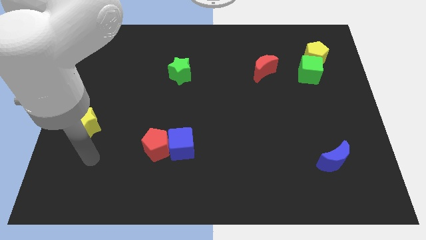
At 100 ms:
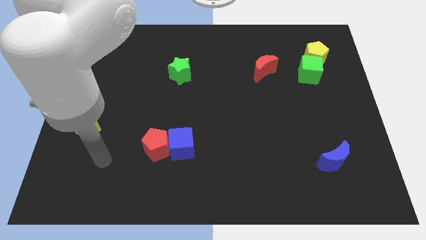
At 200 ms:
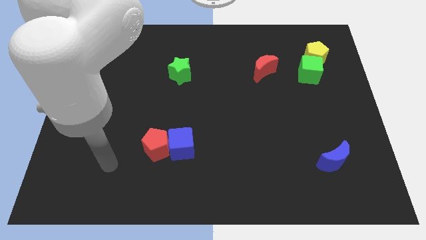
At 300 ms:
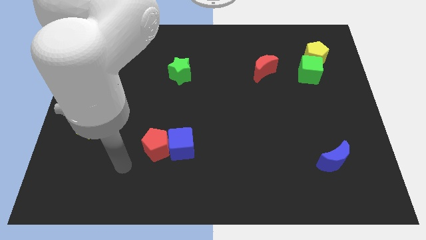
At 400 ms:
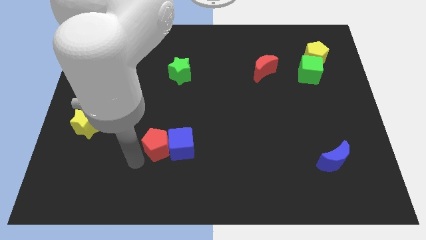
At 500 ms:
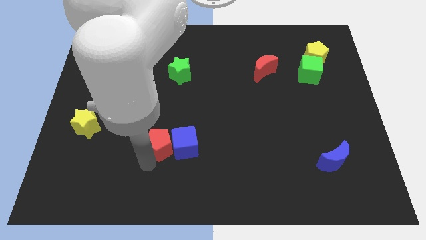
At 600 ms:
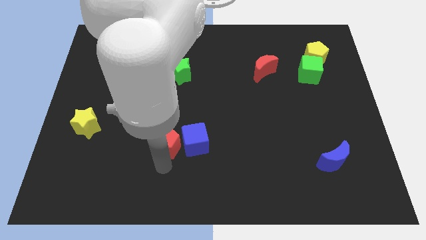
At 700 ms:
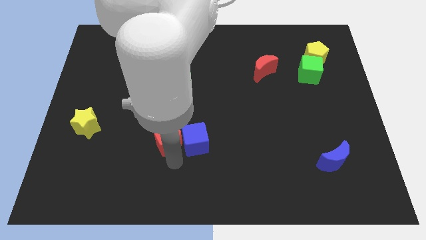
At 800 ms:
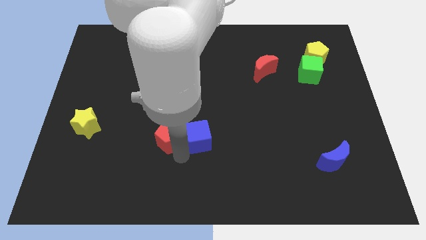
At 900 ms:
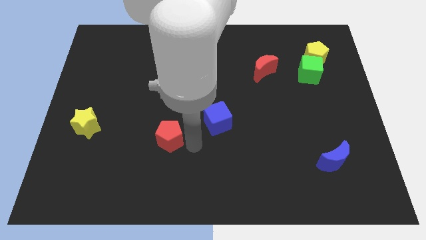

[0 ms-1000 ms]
move the red pentagon away from the blue cube

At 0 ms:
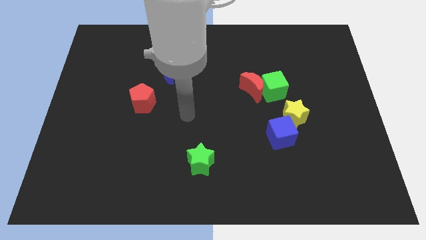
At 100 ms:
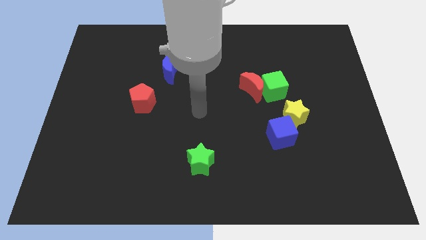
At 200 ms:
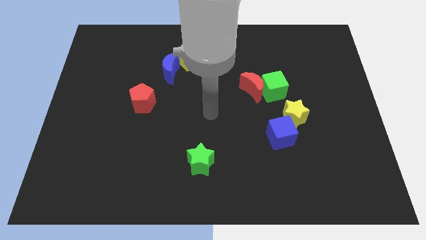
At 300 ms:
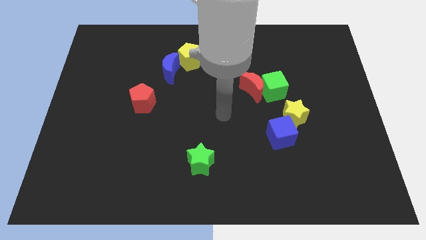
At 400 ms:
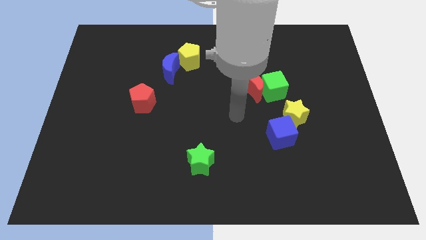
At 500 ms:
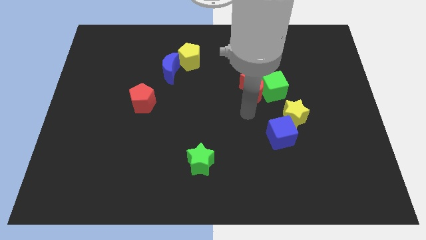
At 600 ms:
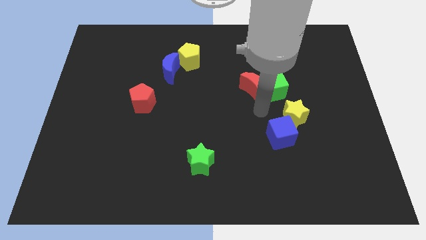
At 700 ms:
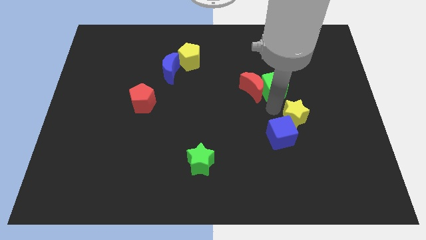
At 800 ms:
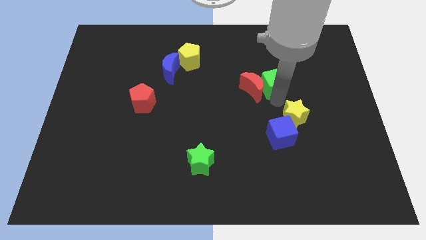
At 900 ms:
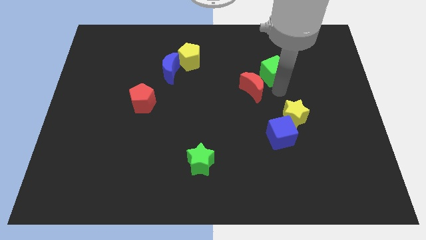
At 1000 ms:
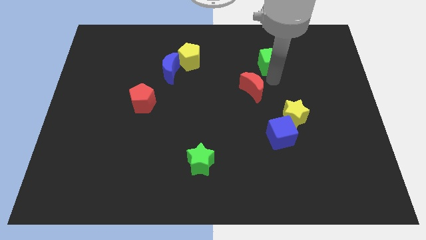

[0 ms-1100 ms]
move the red moon away from the green cube

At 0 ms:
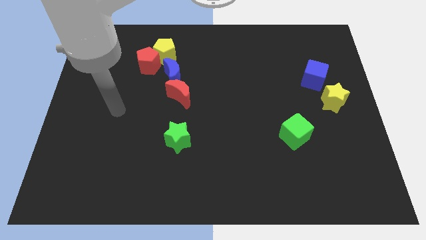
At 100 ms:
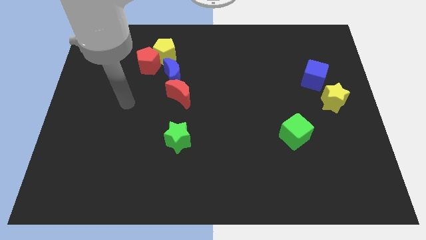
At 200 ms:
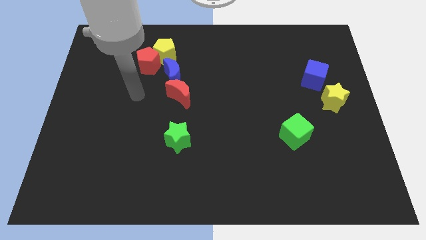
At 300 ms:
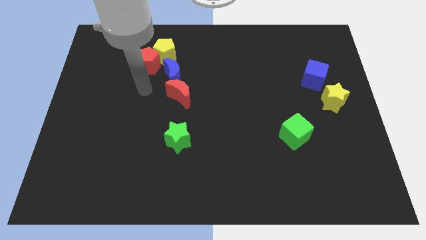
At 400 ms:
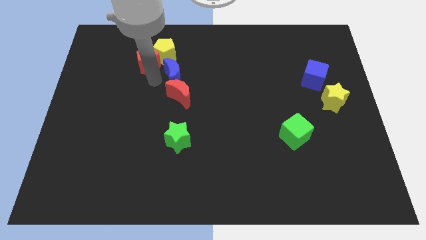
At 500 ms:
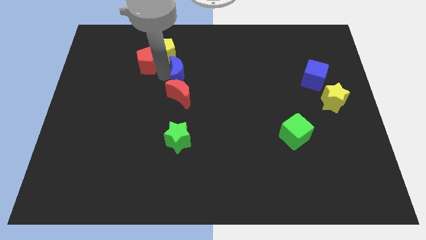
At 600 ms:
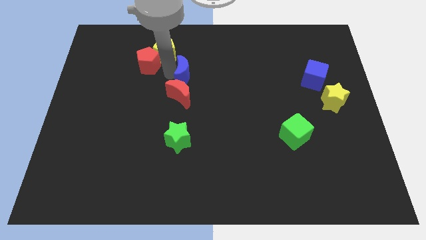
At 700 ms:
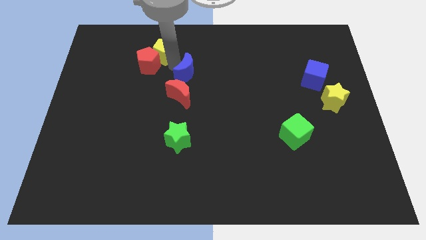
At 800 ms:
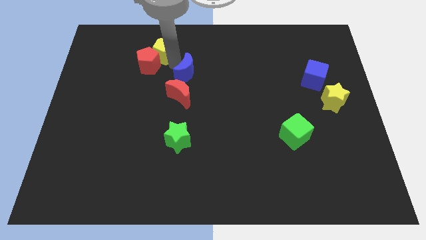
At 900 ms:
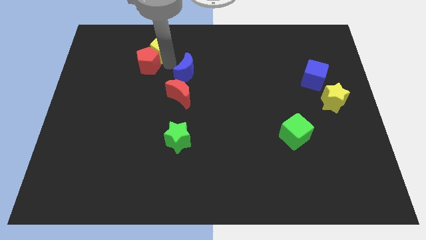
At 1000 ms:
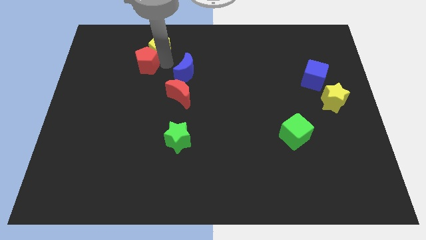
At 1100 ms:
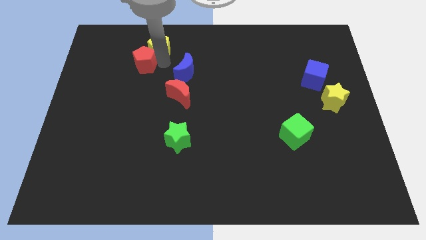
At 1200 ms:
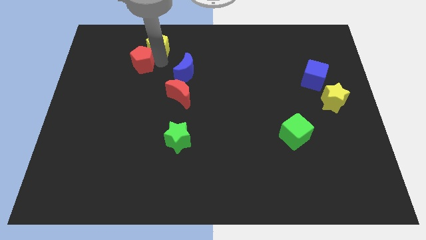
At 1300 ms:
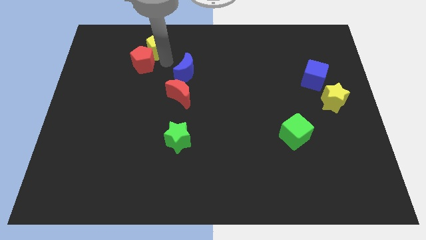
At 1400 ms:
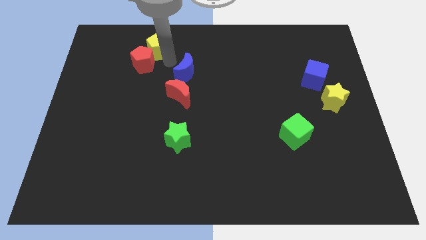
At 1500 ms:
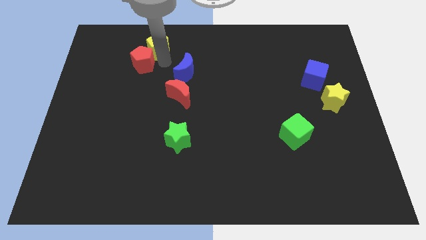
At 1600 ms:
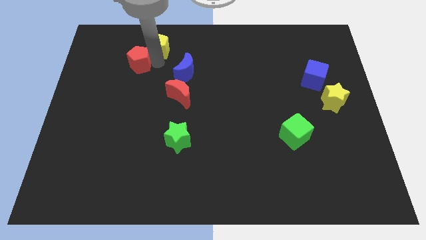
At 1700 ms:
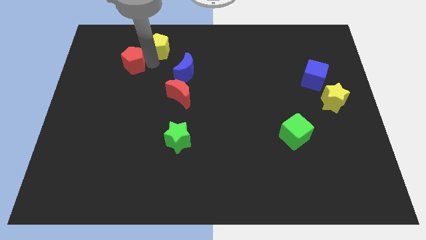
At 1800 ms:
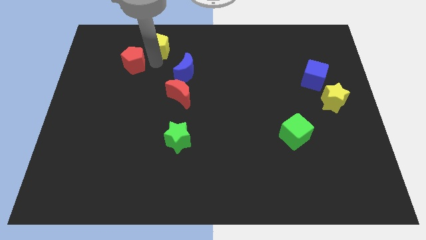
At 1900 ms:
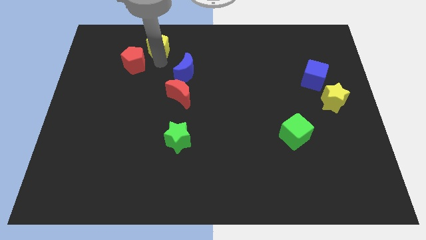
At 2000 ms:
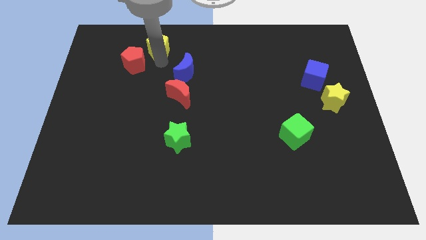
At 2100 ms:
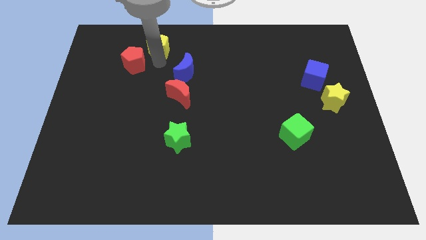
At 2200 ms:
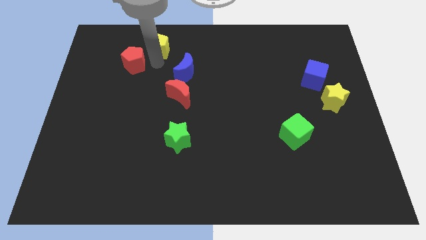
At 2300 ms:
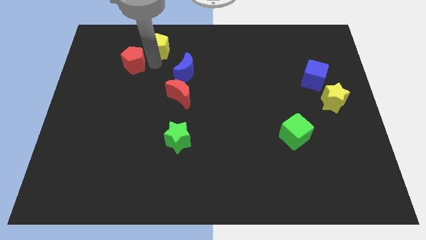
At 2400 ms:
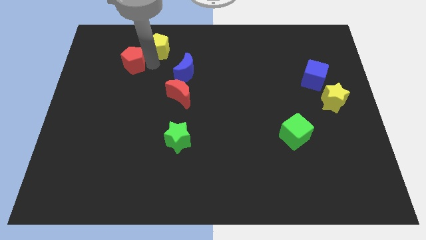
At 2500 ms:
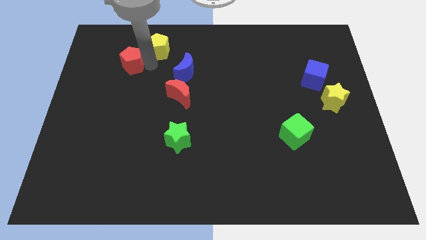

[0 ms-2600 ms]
pull the red pentagon apart from the yellow pentagon and blue moon

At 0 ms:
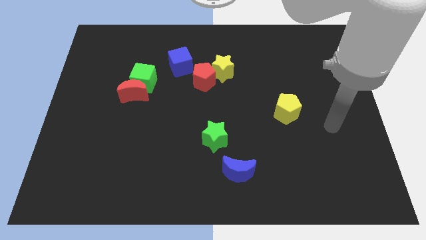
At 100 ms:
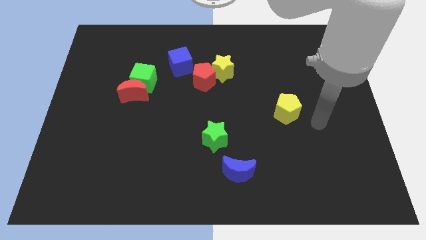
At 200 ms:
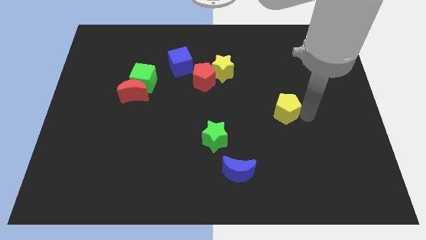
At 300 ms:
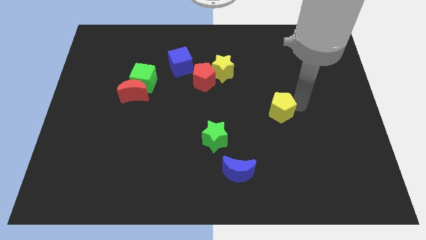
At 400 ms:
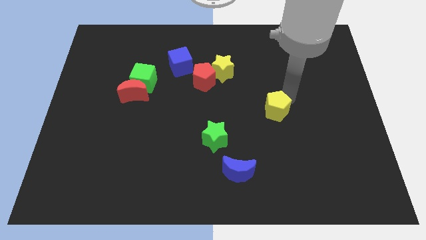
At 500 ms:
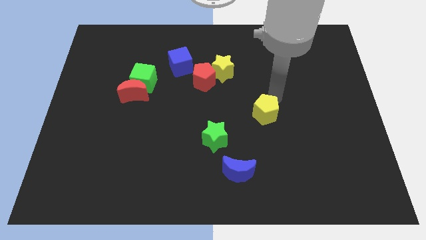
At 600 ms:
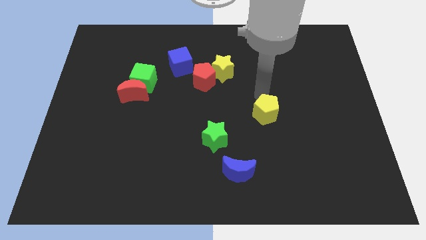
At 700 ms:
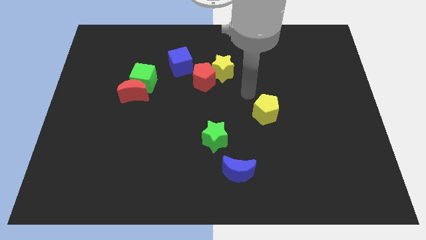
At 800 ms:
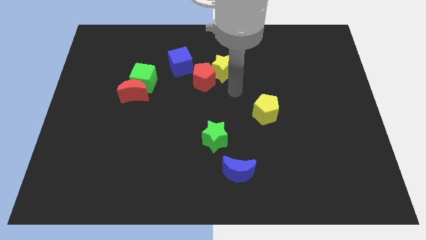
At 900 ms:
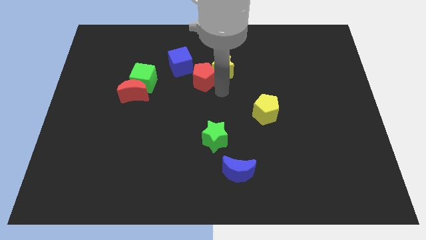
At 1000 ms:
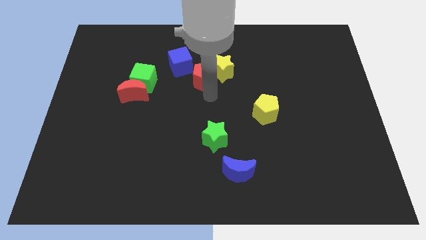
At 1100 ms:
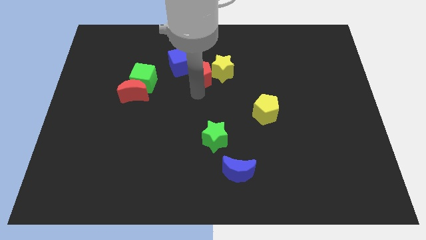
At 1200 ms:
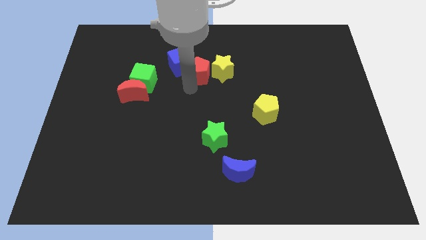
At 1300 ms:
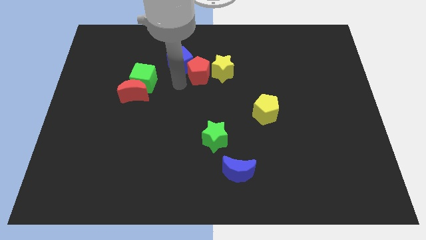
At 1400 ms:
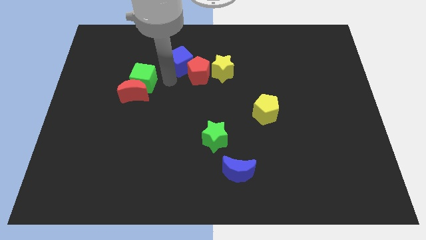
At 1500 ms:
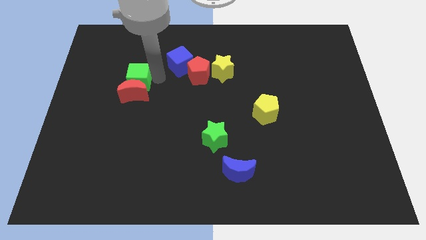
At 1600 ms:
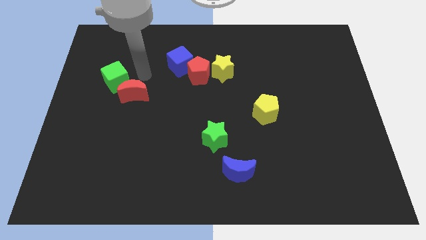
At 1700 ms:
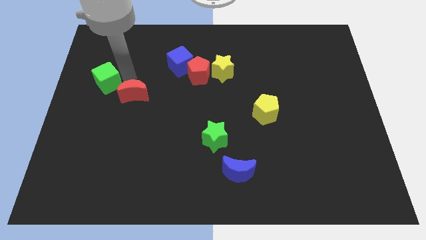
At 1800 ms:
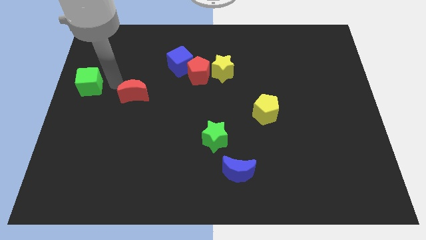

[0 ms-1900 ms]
separate the red moon from the green cube

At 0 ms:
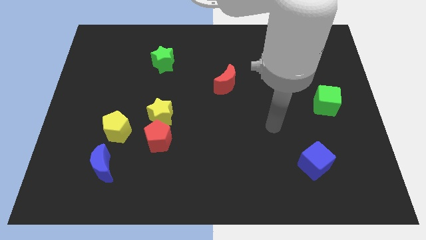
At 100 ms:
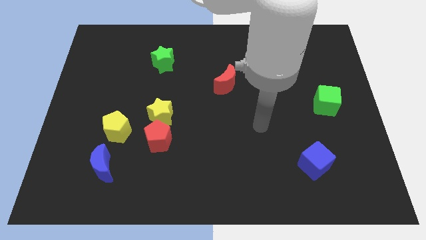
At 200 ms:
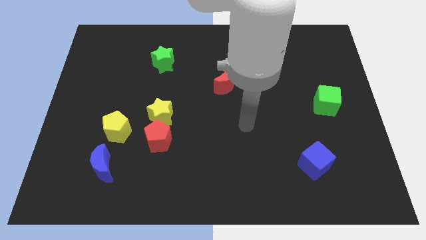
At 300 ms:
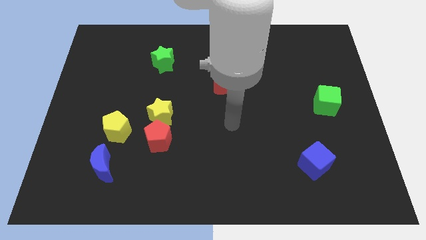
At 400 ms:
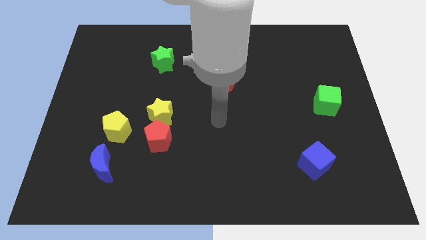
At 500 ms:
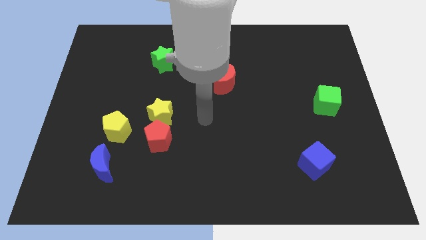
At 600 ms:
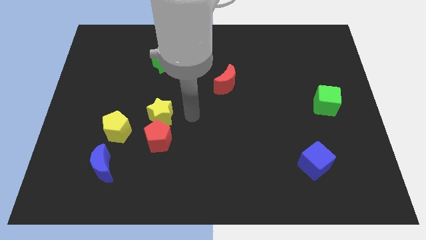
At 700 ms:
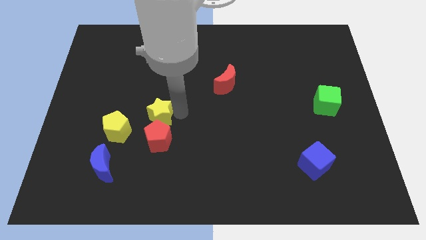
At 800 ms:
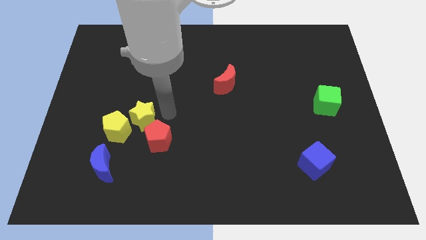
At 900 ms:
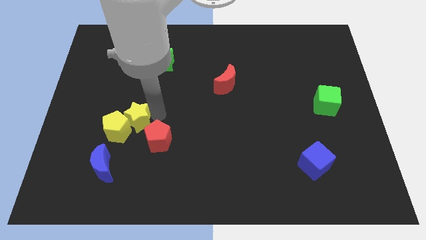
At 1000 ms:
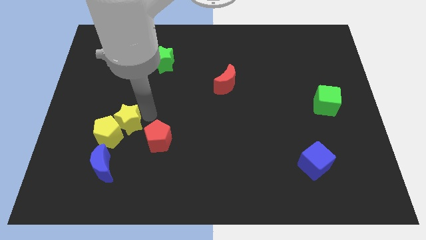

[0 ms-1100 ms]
move the red pentagon away from the yellow star and yellow pentagon

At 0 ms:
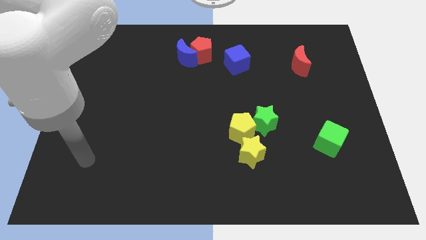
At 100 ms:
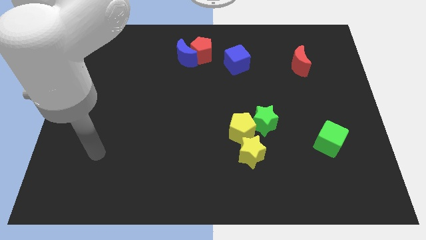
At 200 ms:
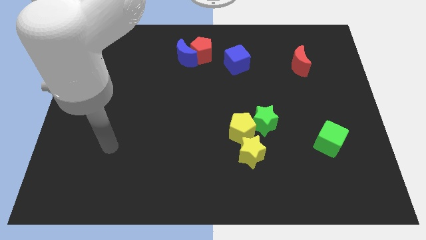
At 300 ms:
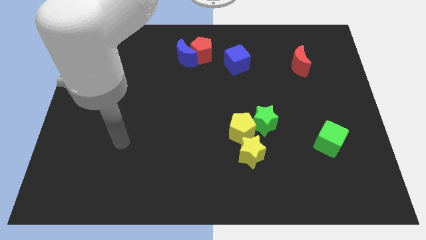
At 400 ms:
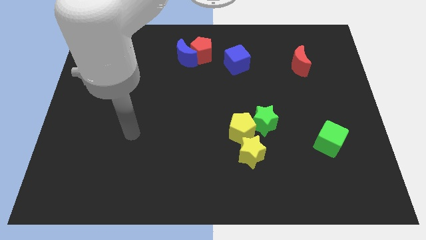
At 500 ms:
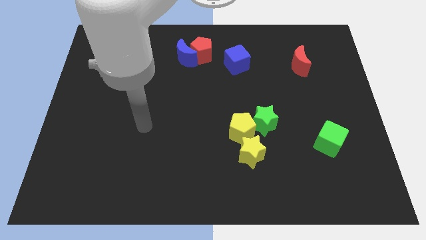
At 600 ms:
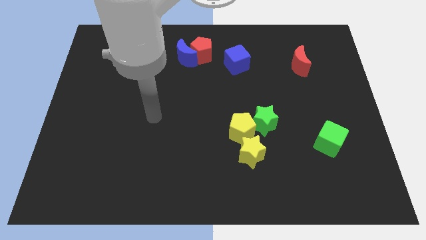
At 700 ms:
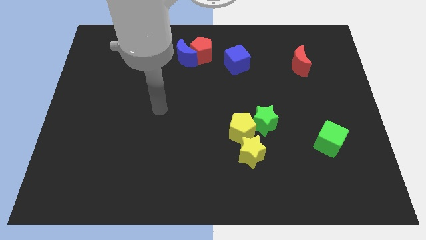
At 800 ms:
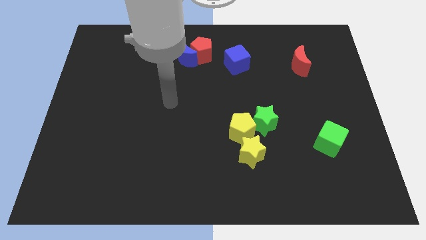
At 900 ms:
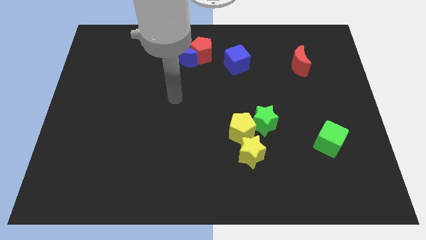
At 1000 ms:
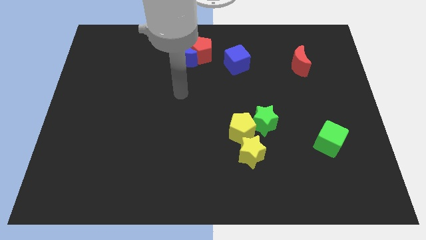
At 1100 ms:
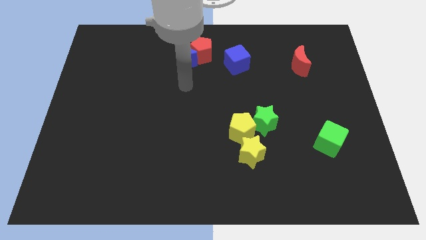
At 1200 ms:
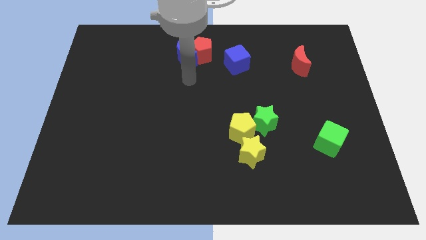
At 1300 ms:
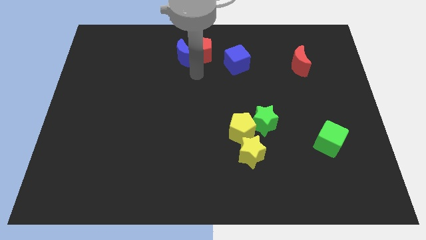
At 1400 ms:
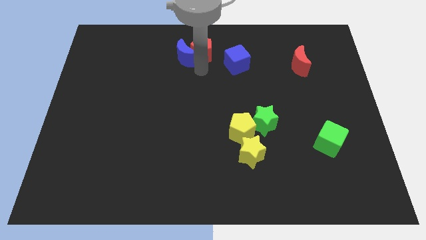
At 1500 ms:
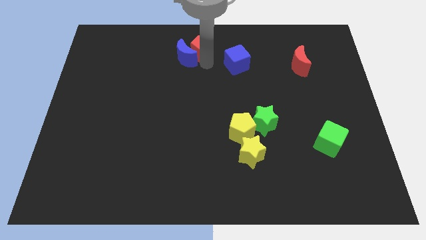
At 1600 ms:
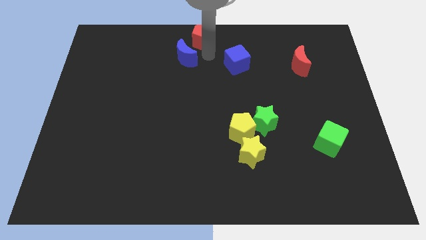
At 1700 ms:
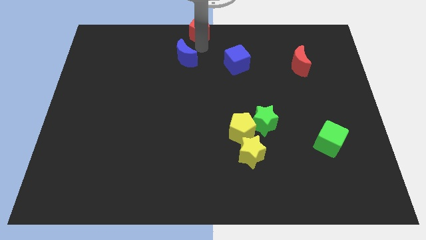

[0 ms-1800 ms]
move the blue moon away from the red pentagon
